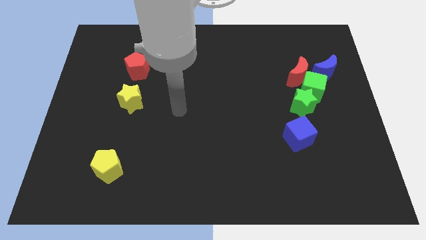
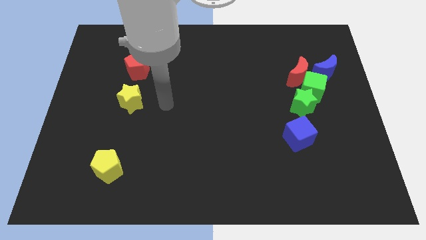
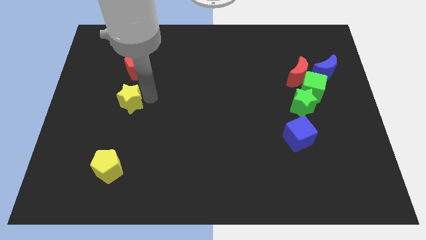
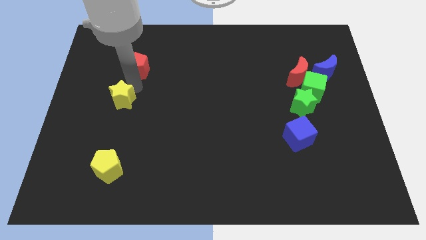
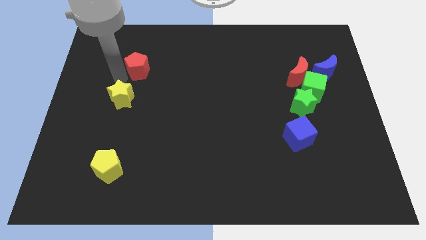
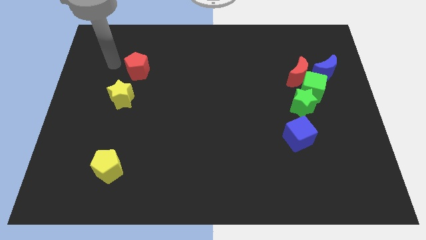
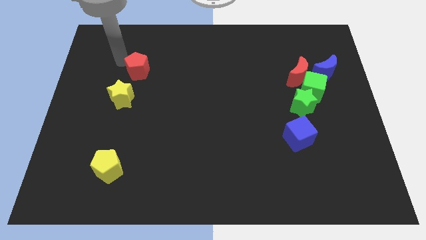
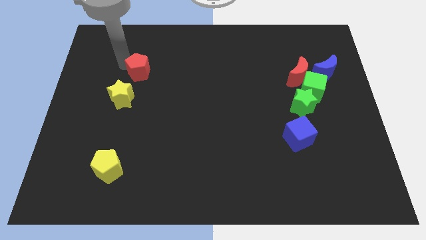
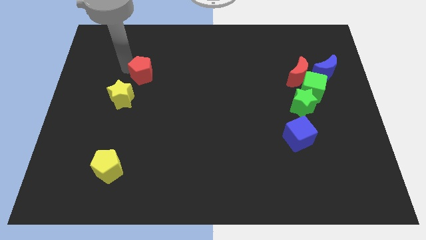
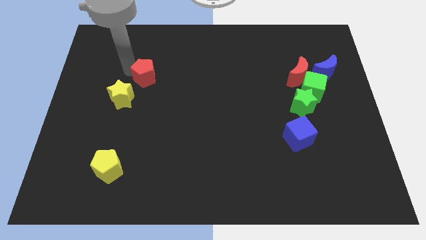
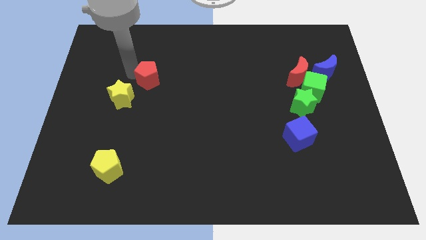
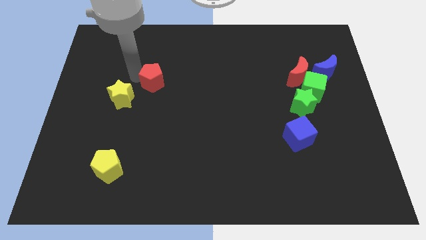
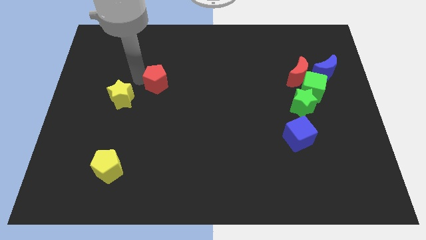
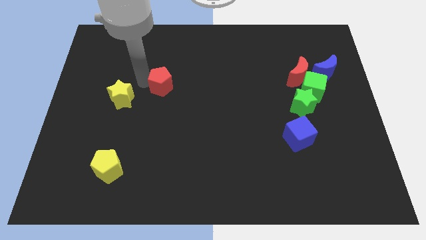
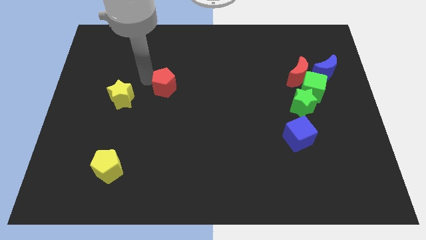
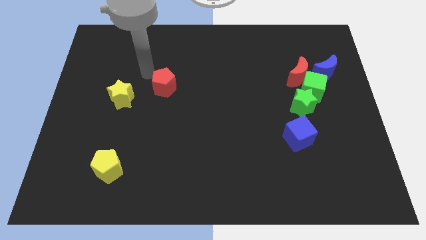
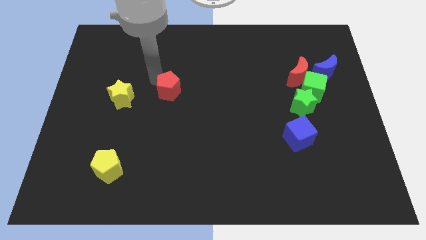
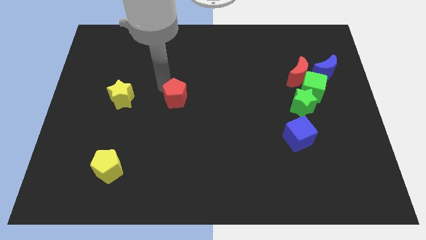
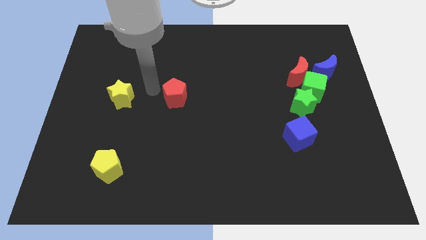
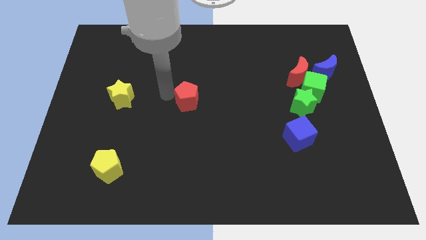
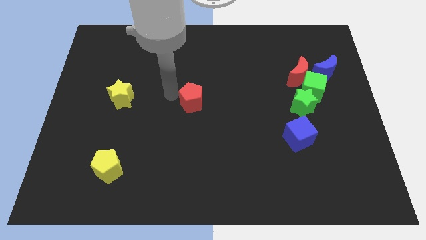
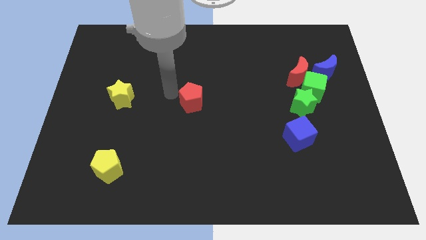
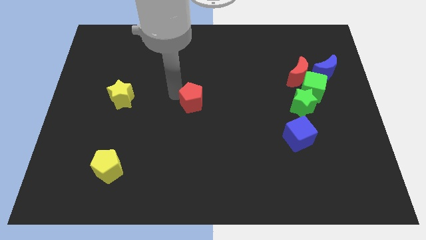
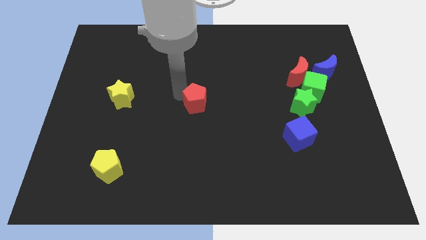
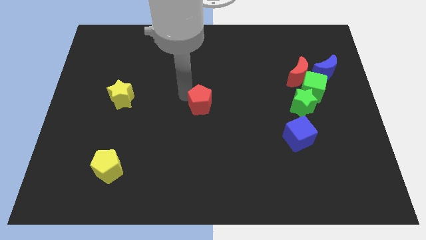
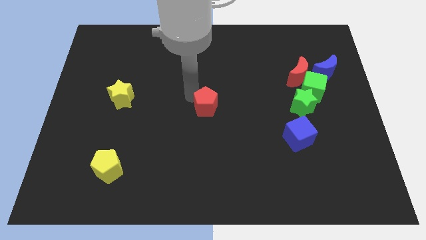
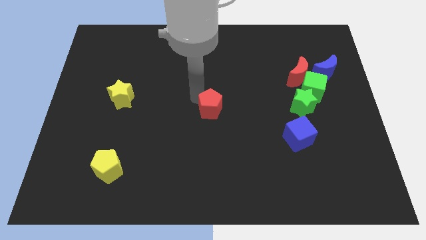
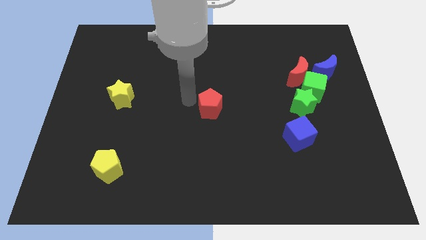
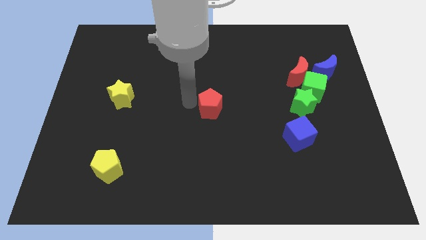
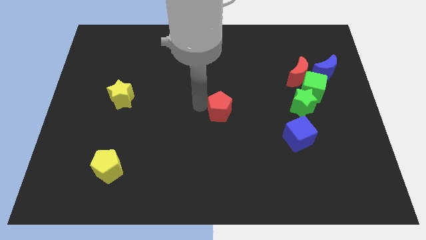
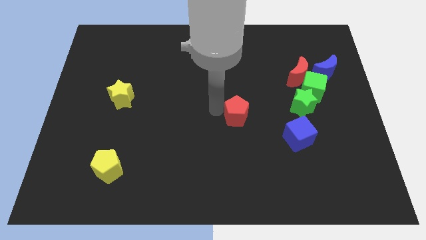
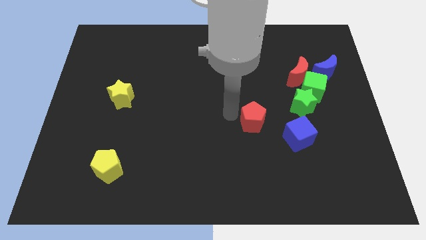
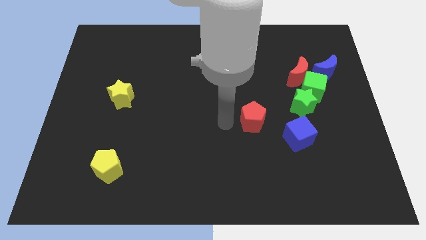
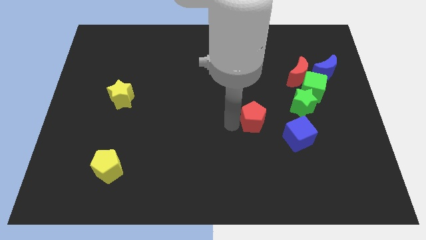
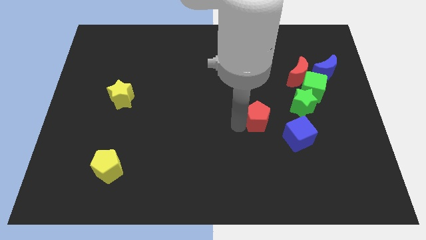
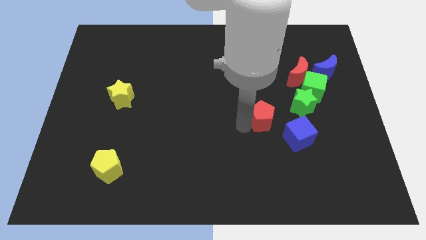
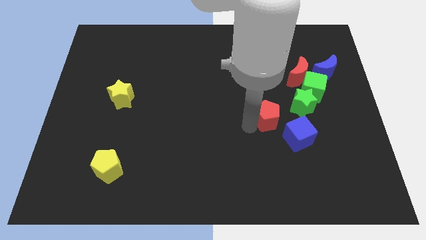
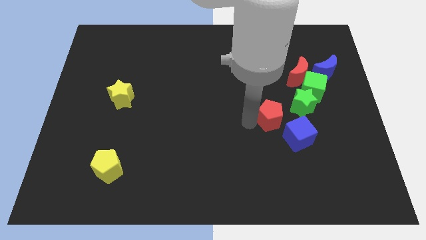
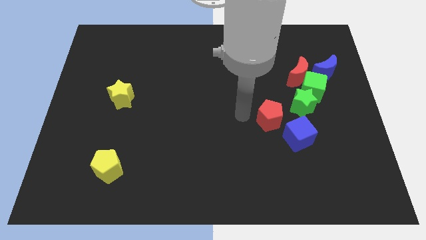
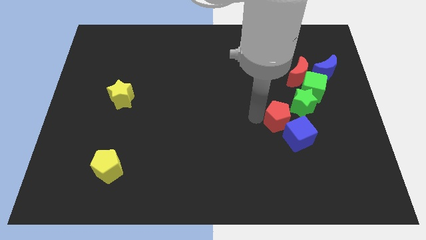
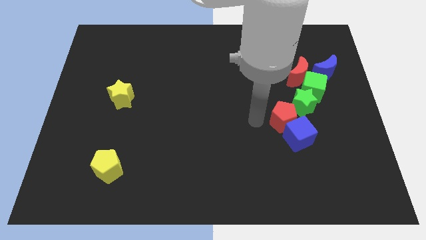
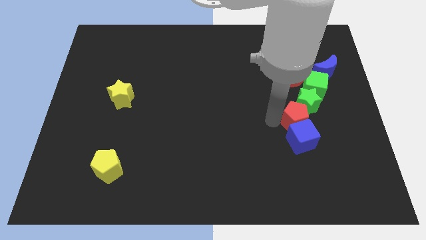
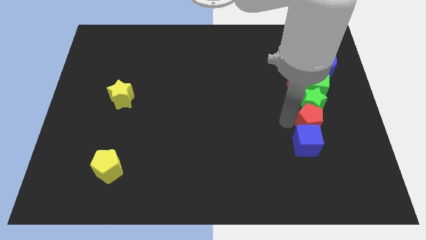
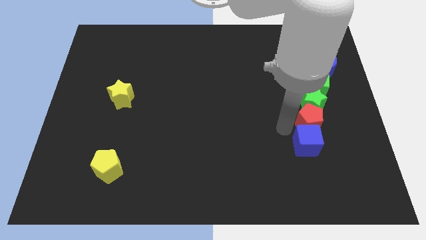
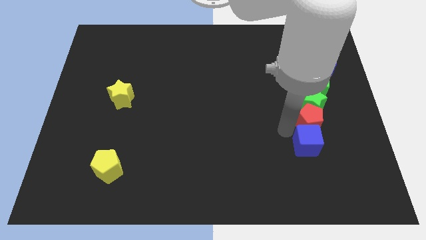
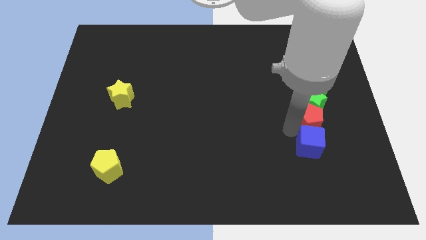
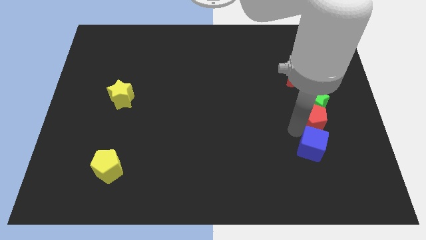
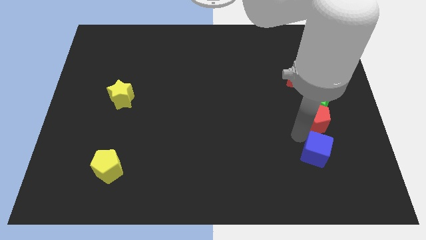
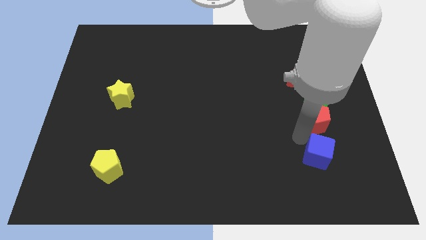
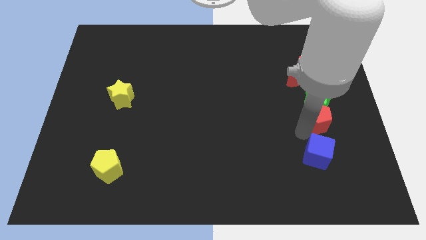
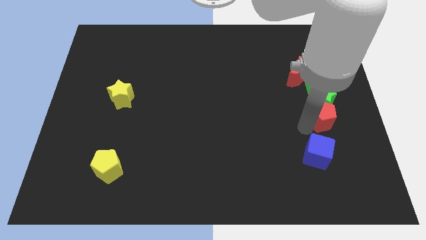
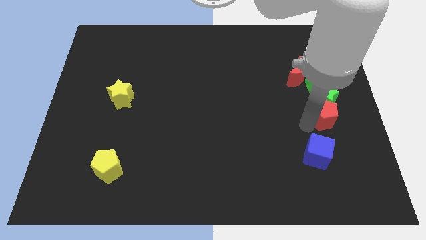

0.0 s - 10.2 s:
move the red pentagon to the bottom of the blue moon

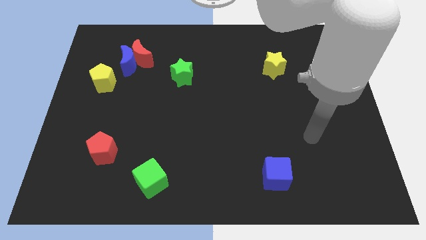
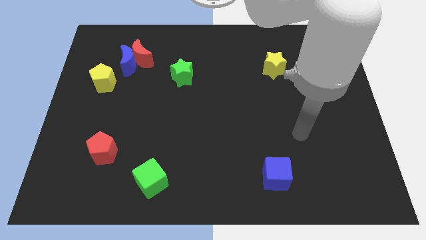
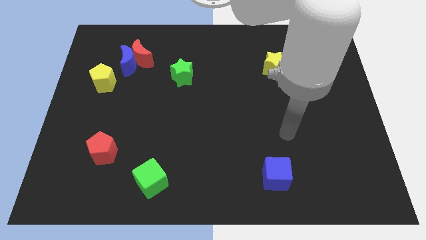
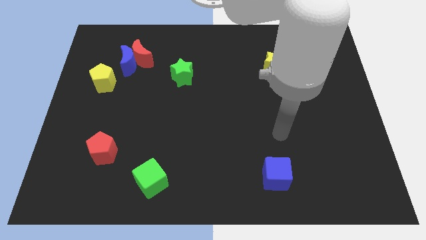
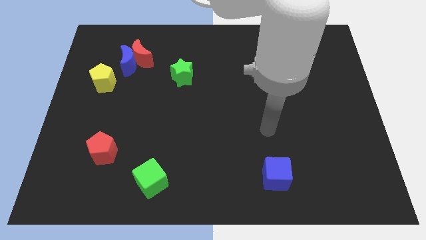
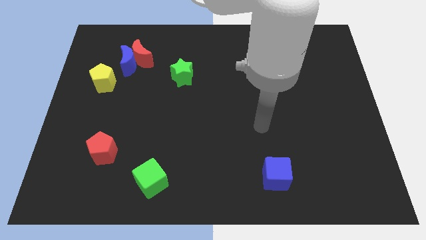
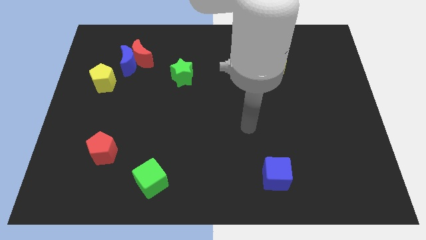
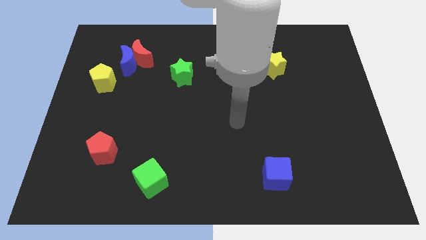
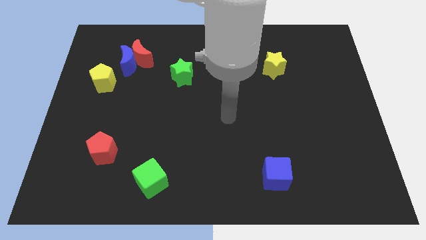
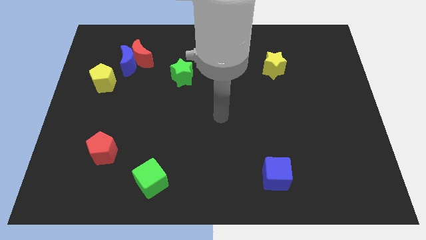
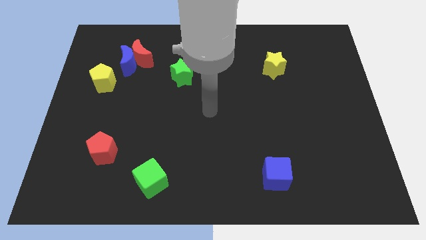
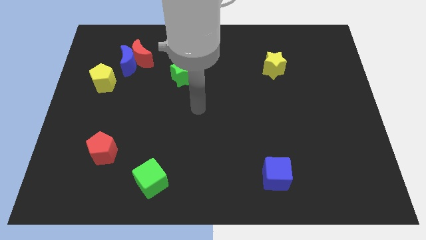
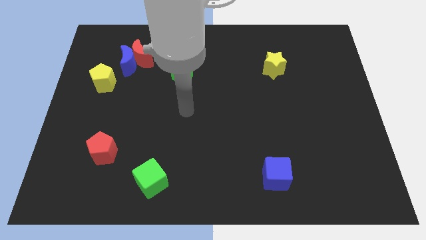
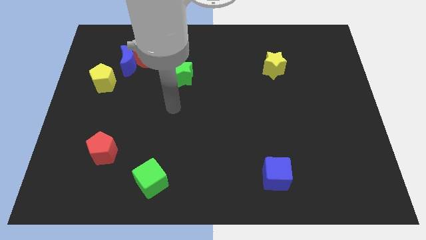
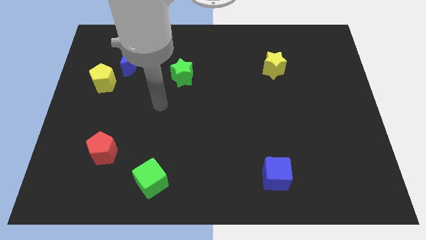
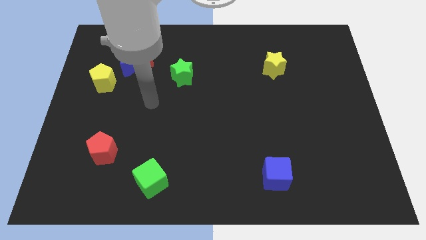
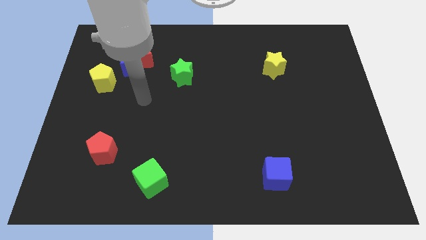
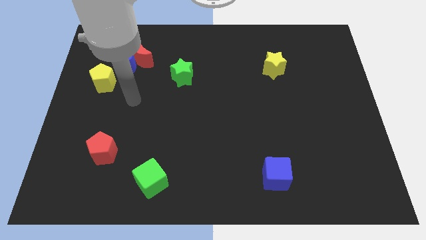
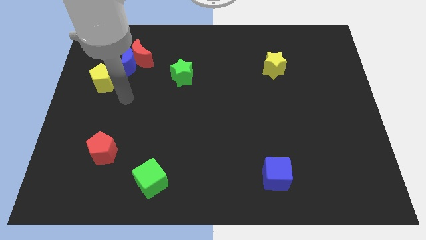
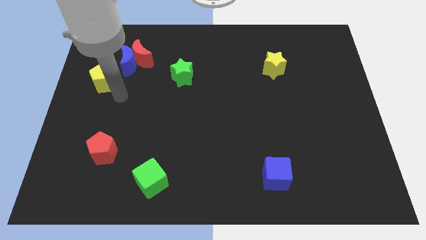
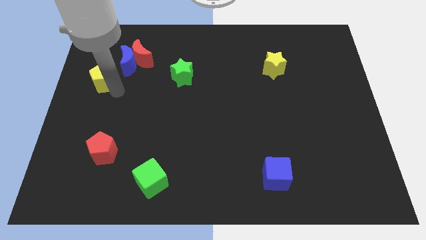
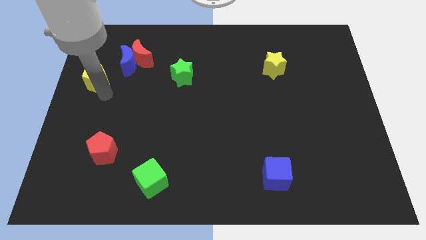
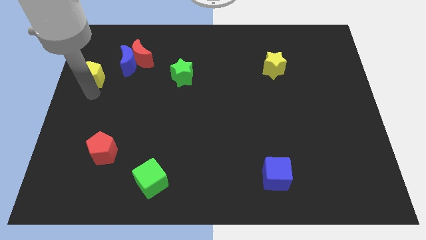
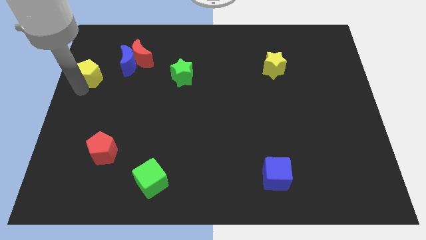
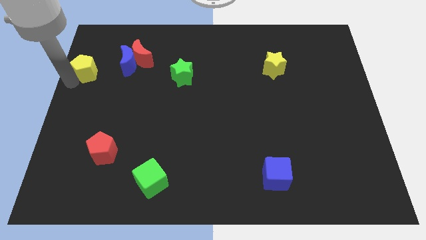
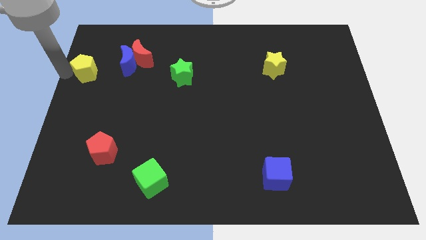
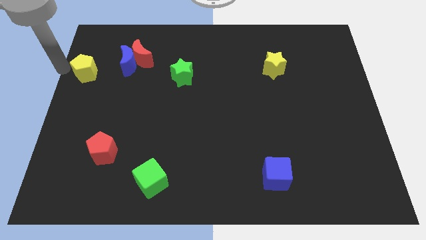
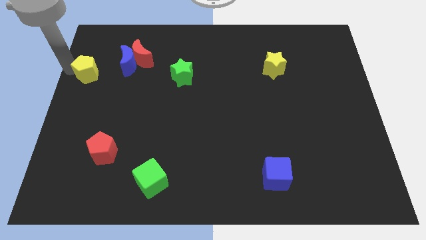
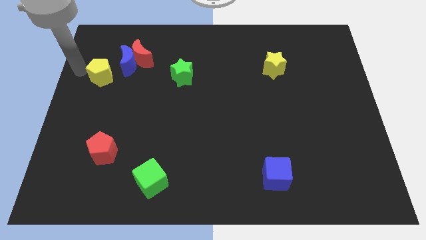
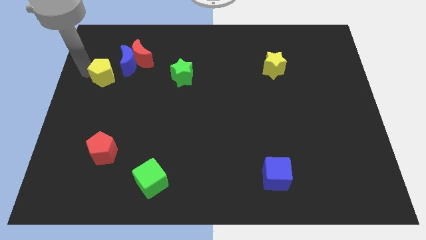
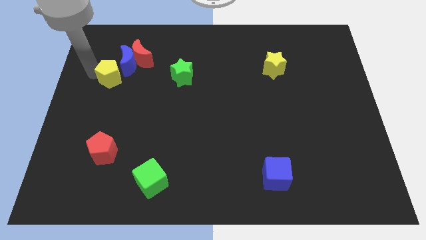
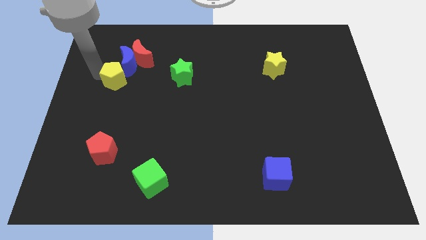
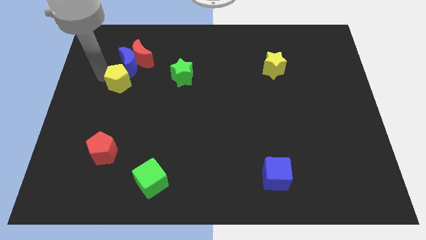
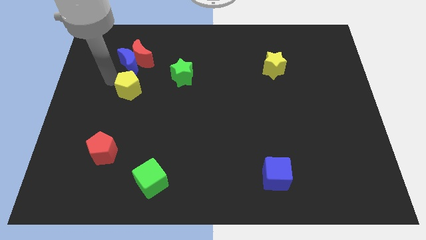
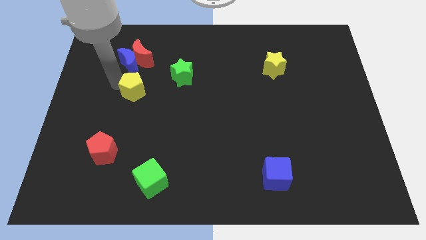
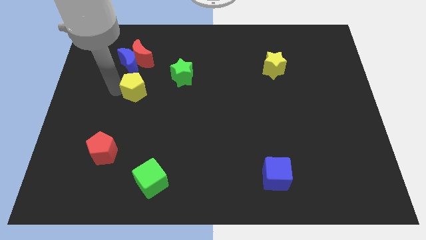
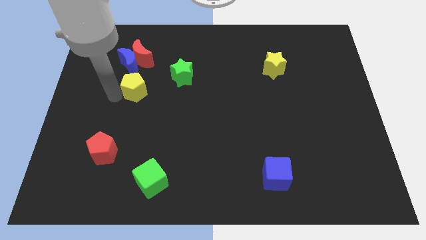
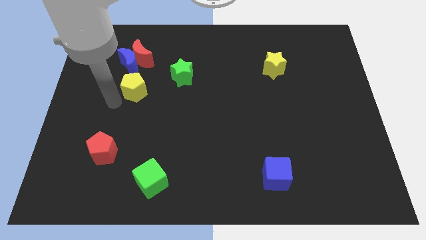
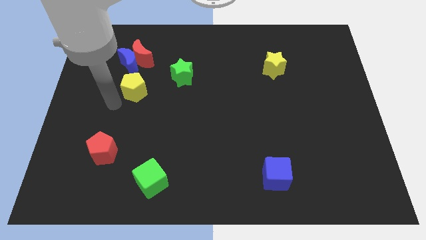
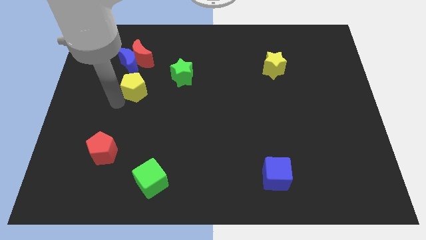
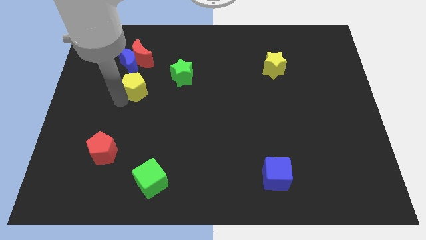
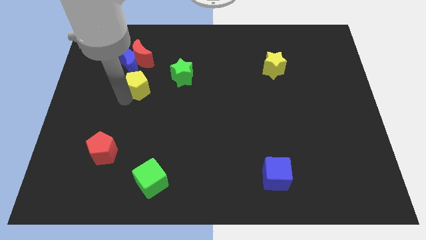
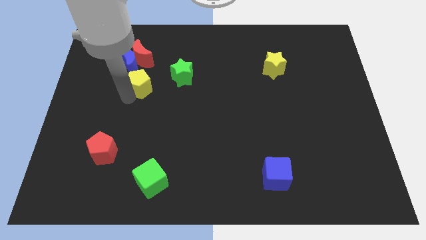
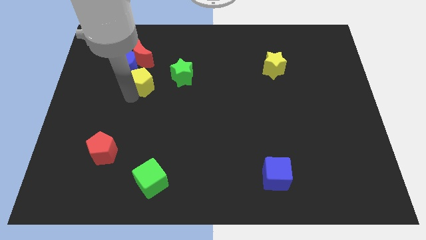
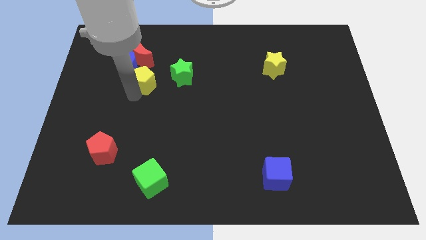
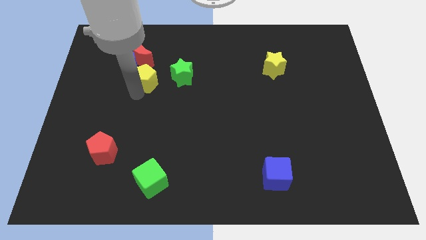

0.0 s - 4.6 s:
move the yellow pentagon diagonally down and to the right of the red moon
